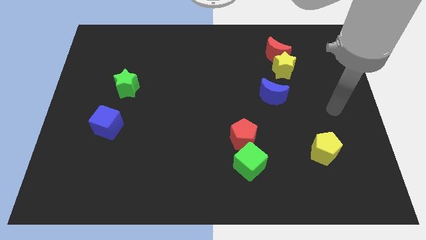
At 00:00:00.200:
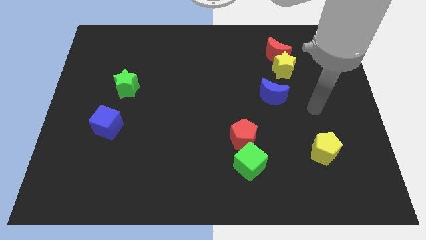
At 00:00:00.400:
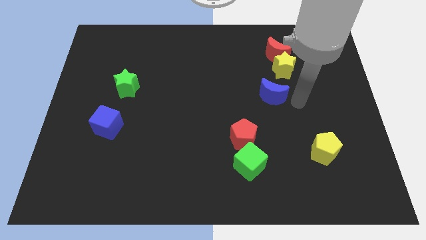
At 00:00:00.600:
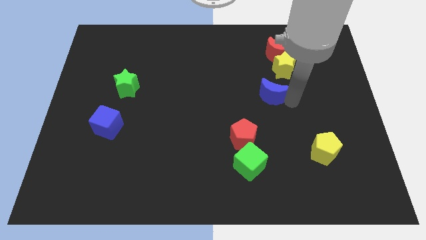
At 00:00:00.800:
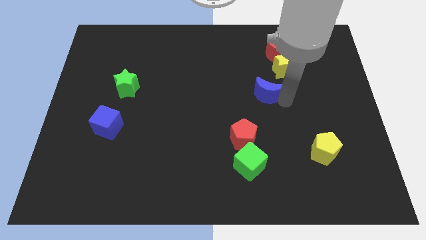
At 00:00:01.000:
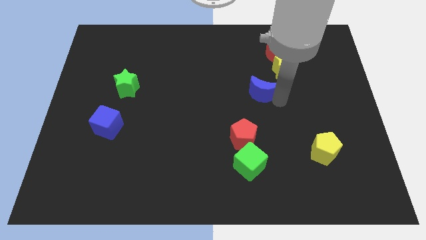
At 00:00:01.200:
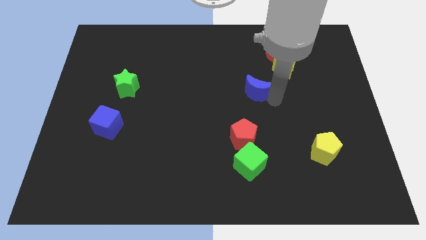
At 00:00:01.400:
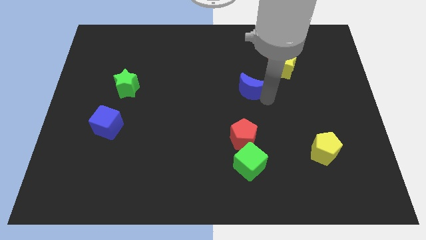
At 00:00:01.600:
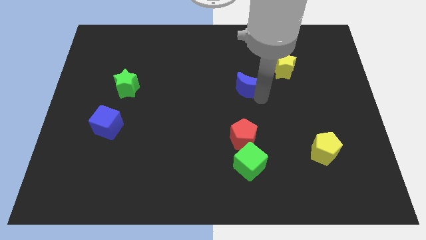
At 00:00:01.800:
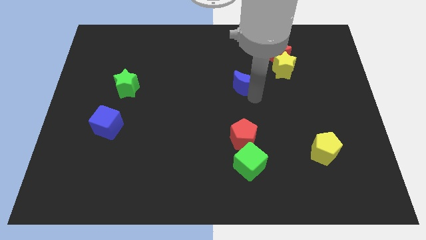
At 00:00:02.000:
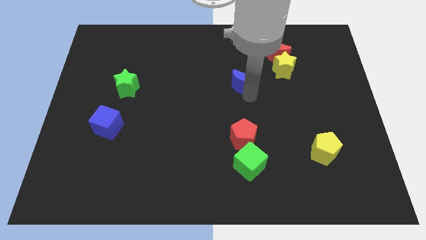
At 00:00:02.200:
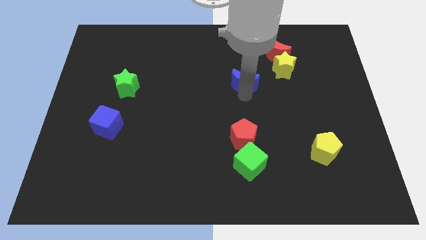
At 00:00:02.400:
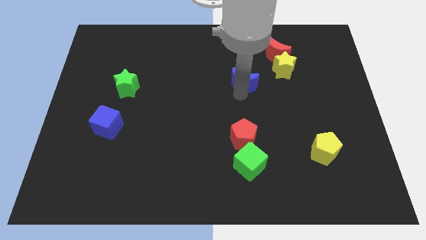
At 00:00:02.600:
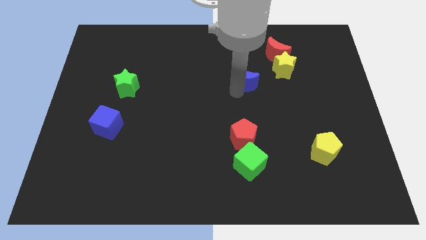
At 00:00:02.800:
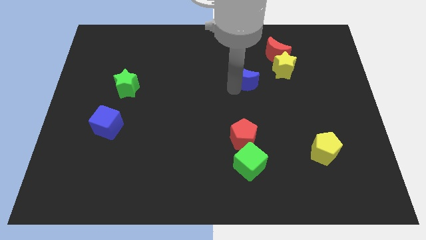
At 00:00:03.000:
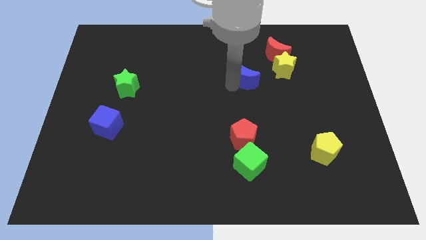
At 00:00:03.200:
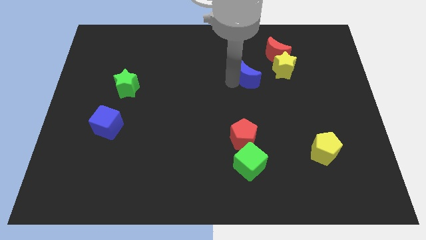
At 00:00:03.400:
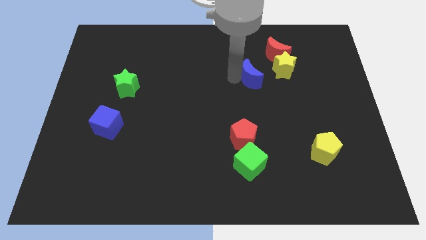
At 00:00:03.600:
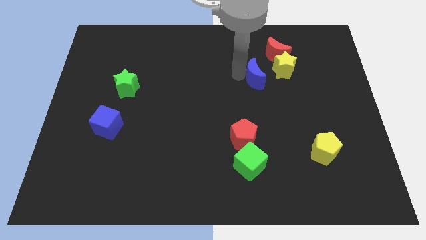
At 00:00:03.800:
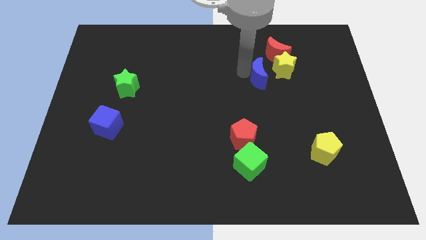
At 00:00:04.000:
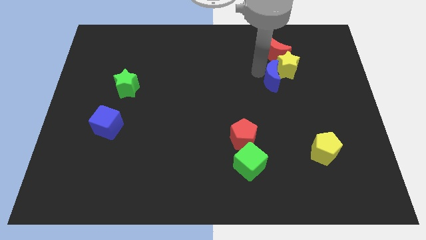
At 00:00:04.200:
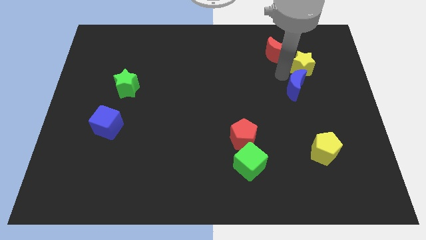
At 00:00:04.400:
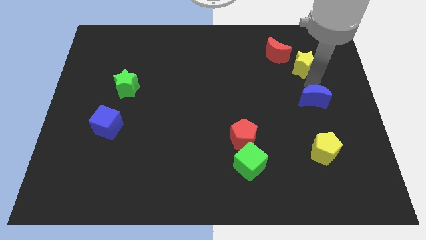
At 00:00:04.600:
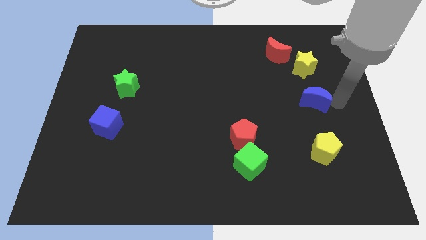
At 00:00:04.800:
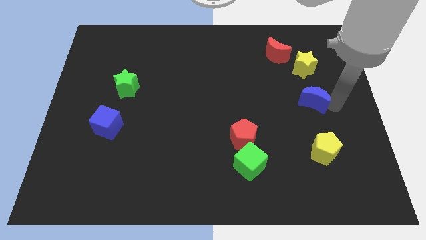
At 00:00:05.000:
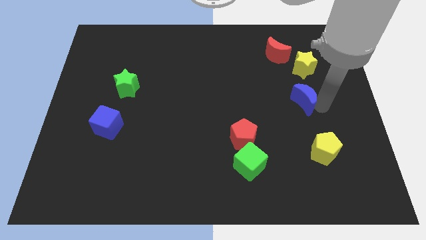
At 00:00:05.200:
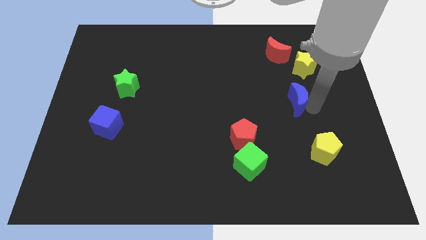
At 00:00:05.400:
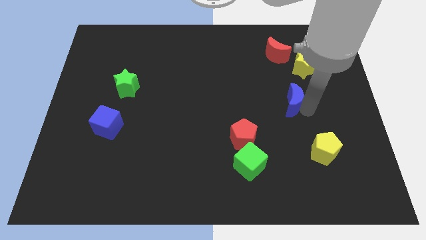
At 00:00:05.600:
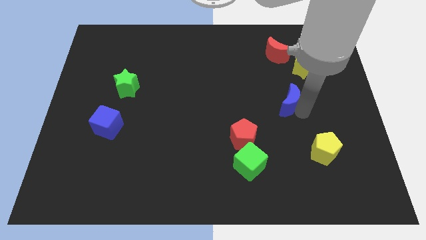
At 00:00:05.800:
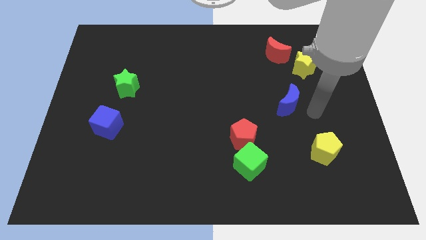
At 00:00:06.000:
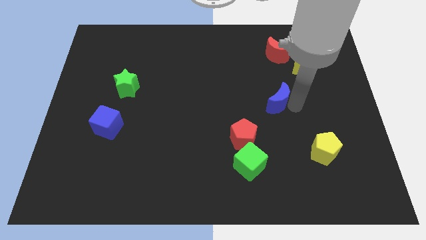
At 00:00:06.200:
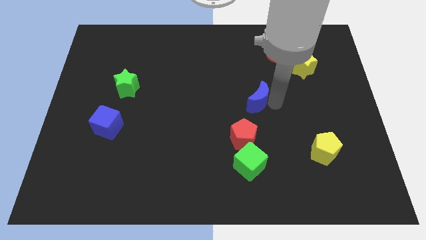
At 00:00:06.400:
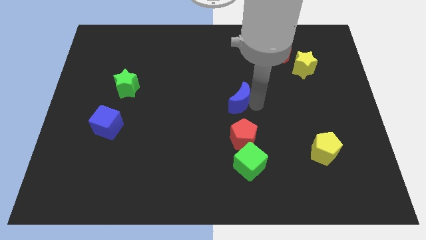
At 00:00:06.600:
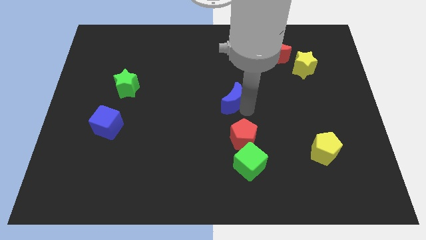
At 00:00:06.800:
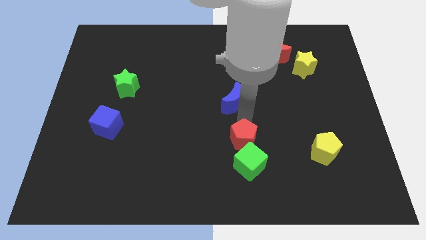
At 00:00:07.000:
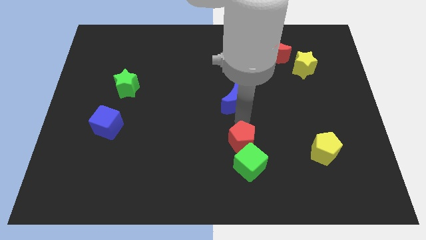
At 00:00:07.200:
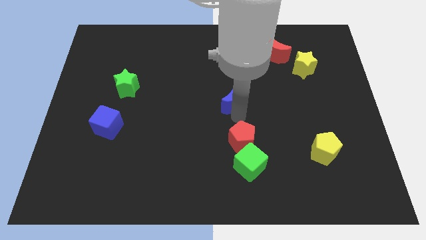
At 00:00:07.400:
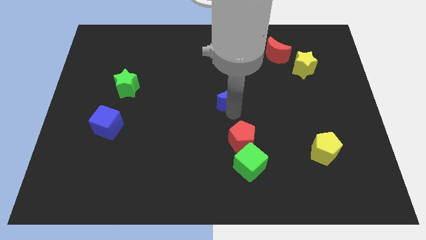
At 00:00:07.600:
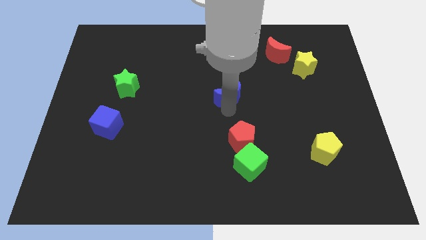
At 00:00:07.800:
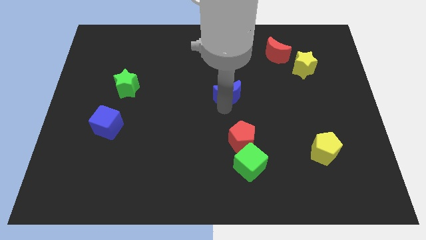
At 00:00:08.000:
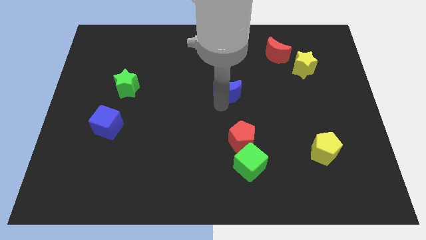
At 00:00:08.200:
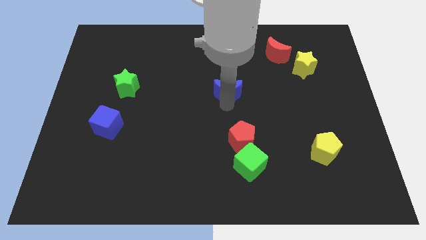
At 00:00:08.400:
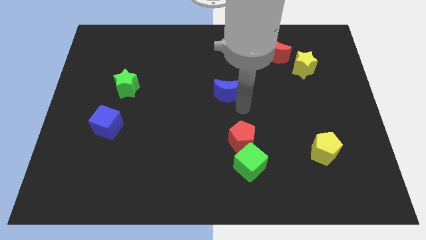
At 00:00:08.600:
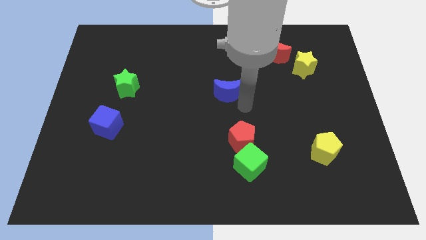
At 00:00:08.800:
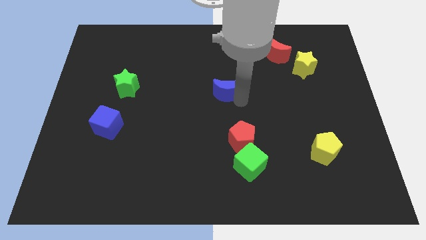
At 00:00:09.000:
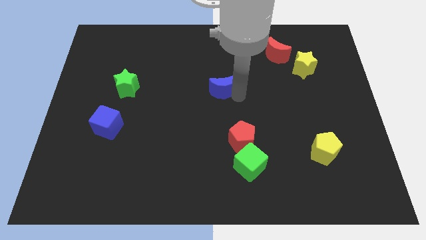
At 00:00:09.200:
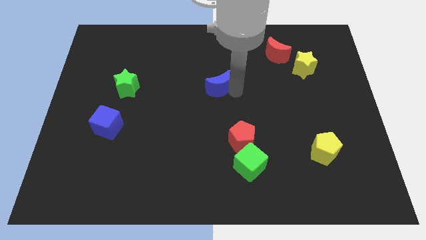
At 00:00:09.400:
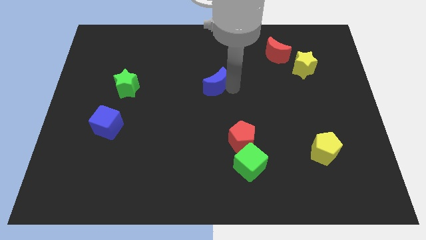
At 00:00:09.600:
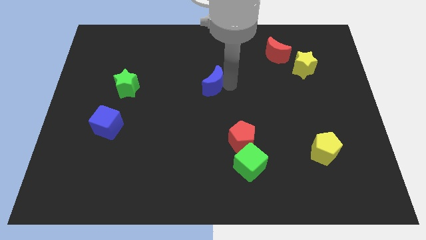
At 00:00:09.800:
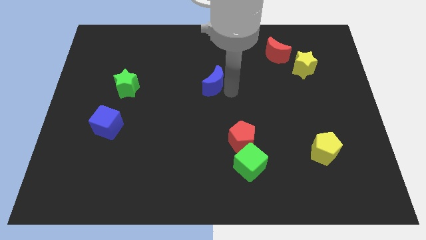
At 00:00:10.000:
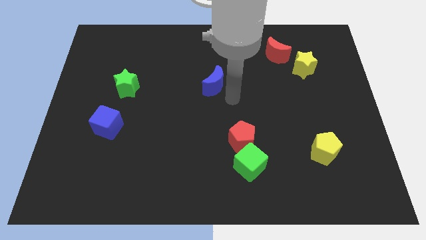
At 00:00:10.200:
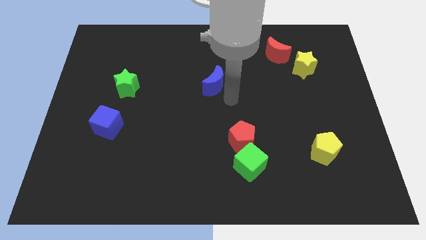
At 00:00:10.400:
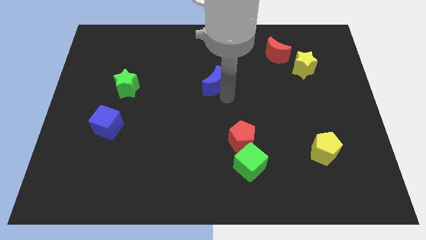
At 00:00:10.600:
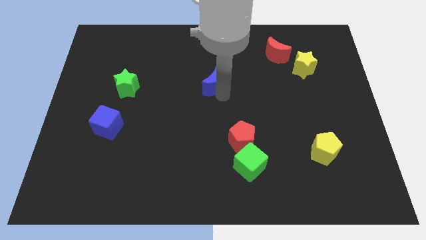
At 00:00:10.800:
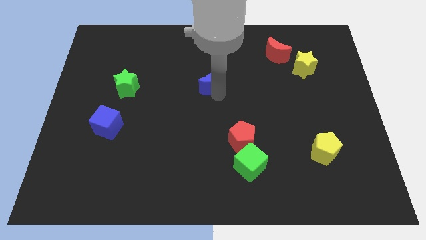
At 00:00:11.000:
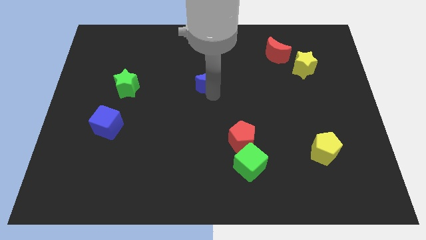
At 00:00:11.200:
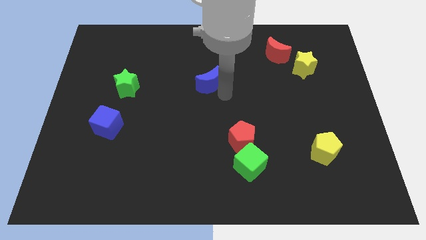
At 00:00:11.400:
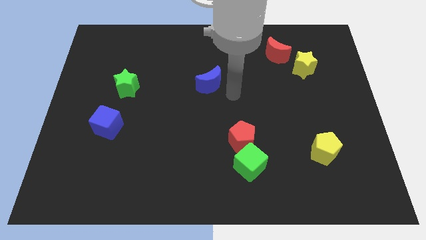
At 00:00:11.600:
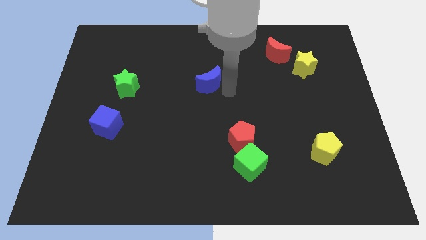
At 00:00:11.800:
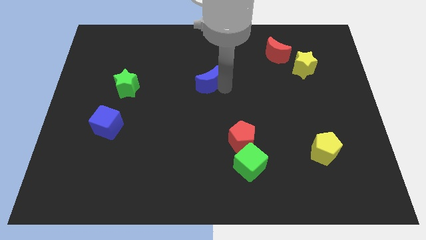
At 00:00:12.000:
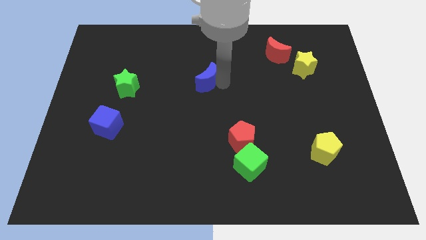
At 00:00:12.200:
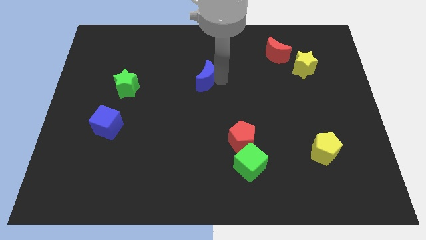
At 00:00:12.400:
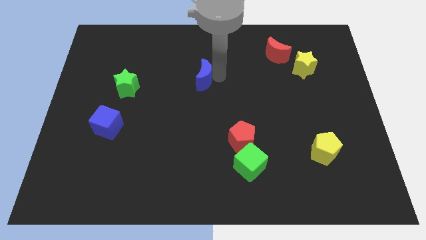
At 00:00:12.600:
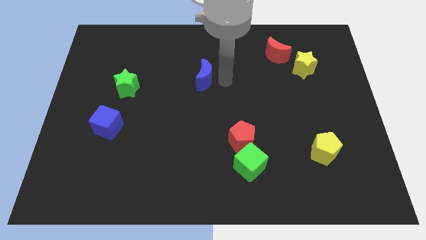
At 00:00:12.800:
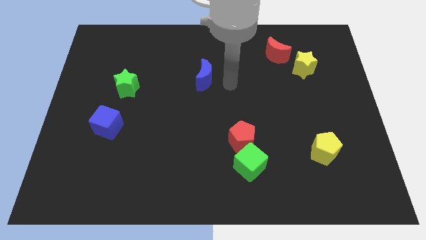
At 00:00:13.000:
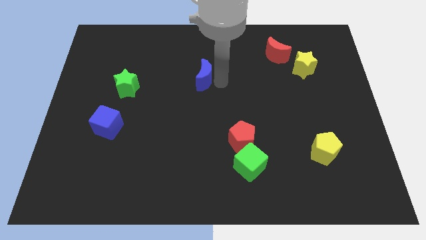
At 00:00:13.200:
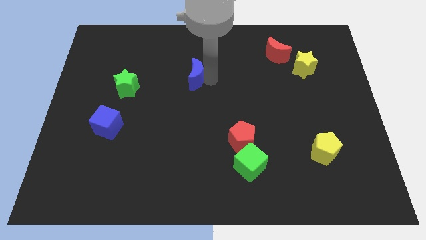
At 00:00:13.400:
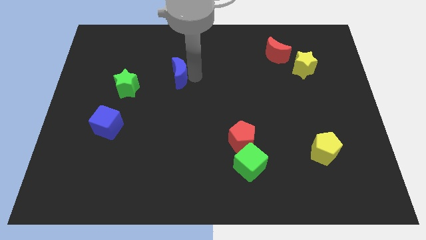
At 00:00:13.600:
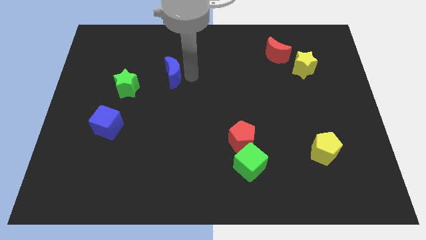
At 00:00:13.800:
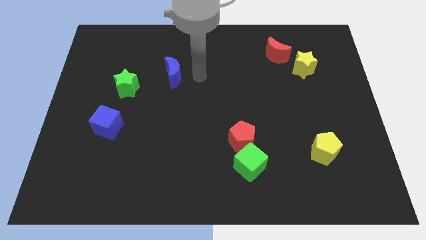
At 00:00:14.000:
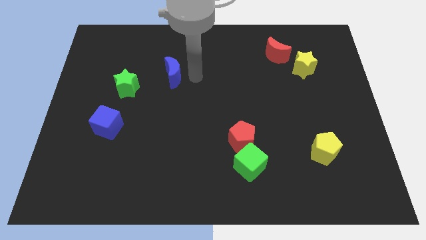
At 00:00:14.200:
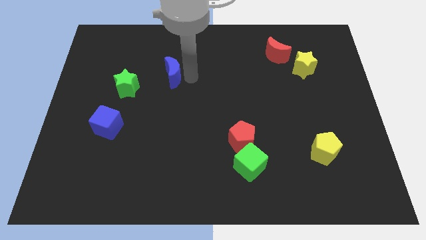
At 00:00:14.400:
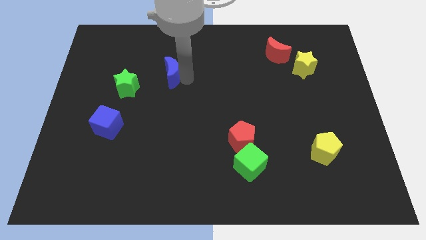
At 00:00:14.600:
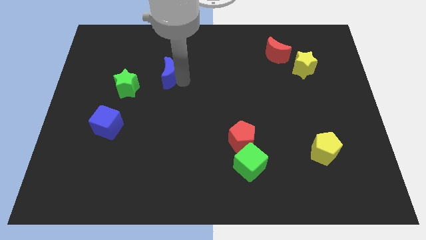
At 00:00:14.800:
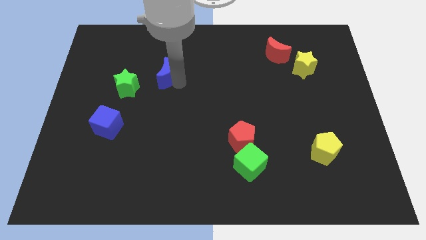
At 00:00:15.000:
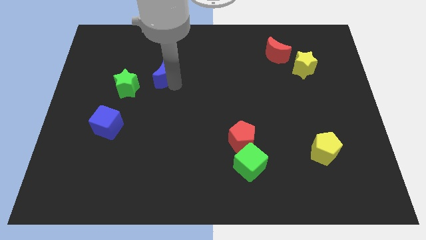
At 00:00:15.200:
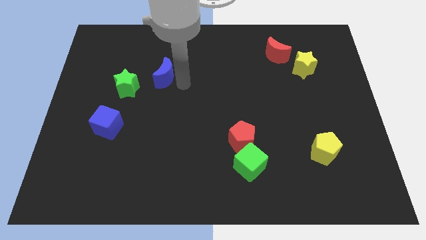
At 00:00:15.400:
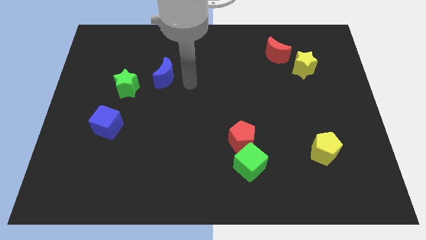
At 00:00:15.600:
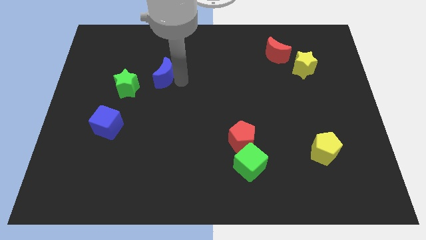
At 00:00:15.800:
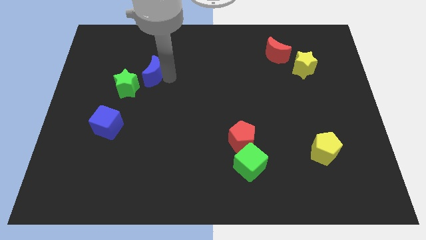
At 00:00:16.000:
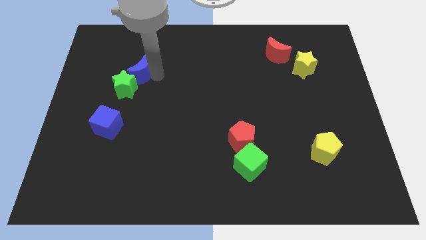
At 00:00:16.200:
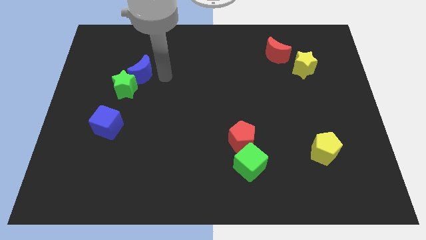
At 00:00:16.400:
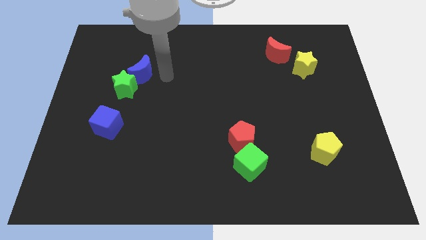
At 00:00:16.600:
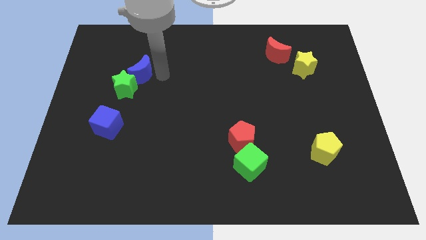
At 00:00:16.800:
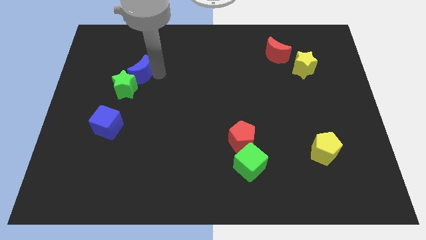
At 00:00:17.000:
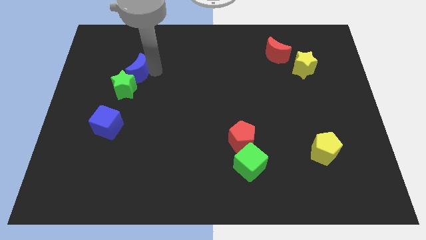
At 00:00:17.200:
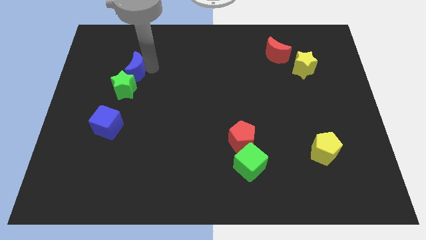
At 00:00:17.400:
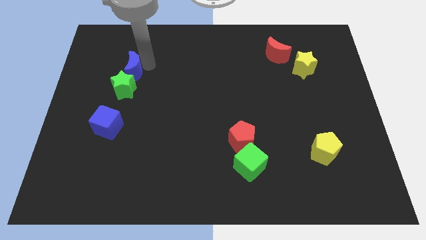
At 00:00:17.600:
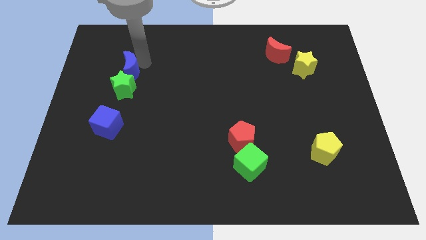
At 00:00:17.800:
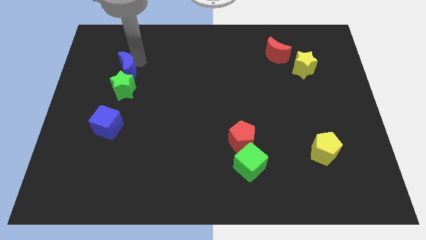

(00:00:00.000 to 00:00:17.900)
push the blue moon diagonally up and to the left of the green star
